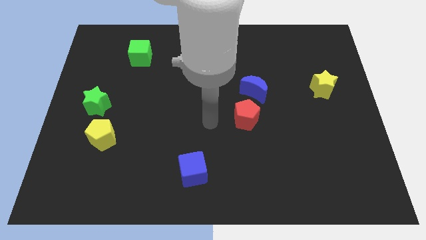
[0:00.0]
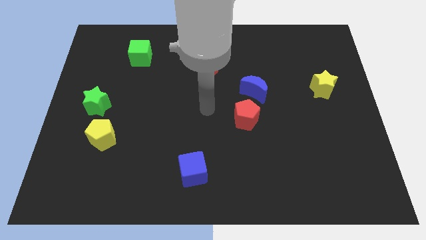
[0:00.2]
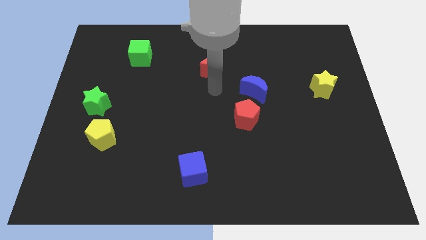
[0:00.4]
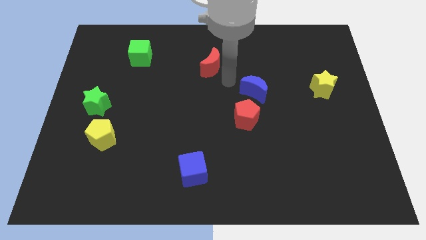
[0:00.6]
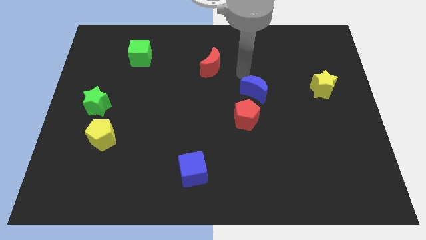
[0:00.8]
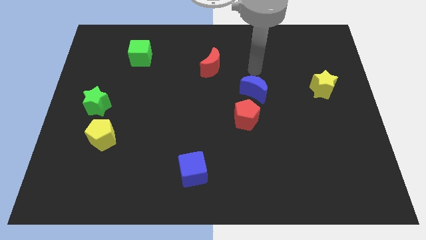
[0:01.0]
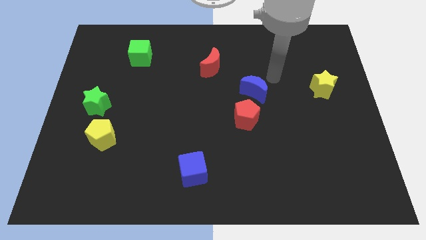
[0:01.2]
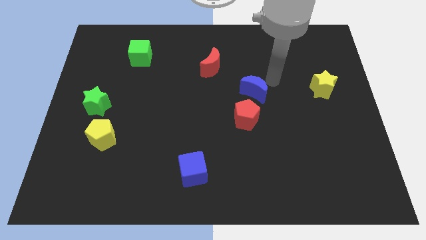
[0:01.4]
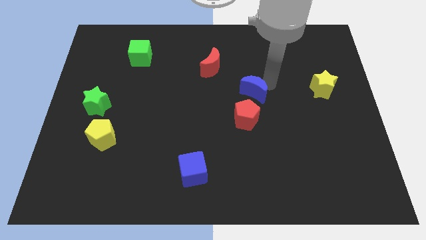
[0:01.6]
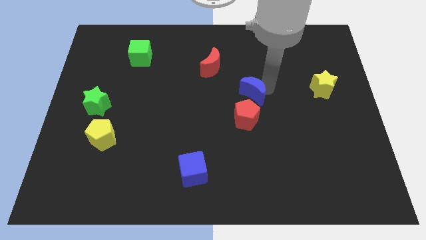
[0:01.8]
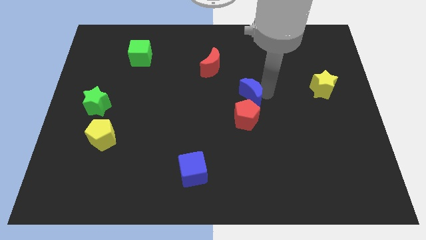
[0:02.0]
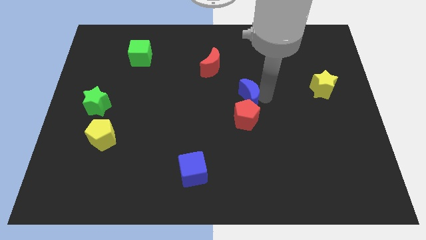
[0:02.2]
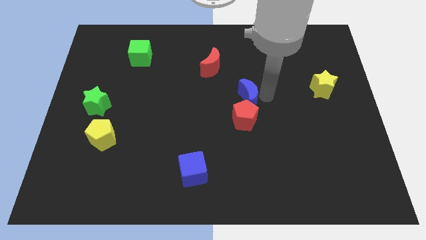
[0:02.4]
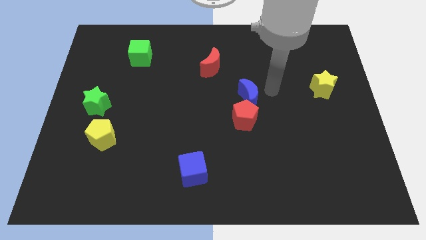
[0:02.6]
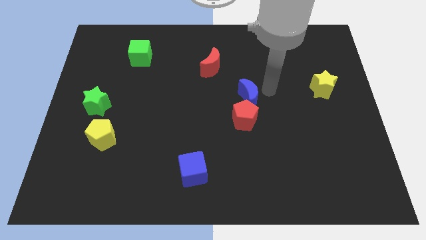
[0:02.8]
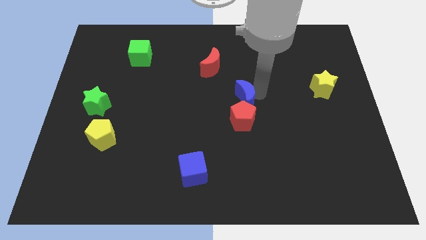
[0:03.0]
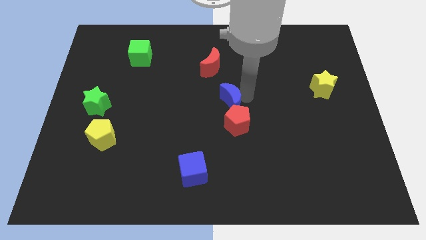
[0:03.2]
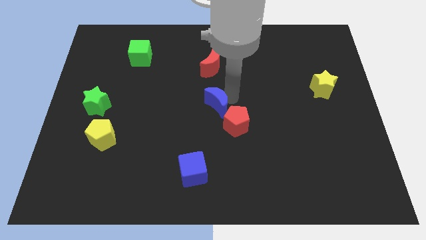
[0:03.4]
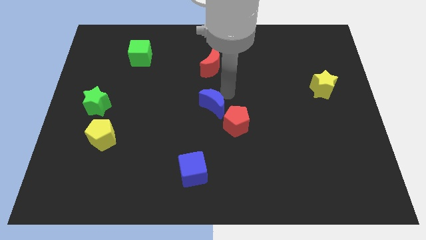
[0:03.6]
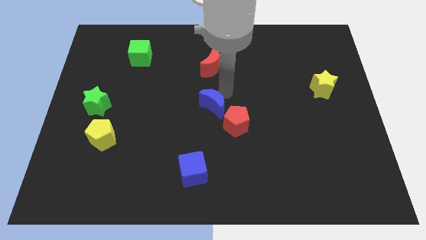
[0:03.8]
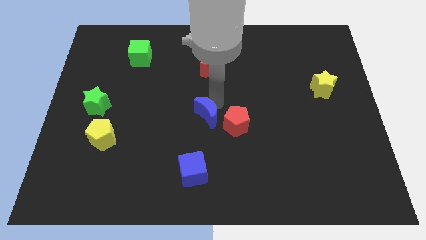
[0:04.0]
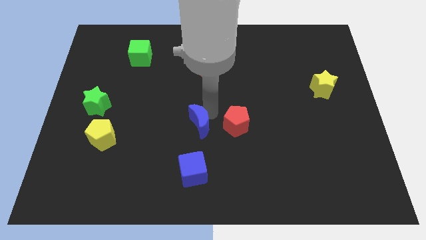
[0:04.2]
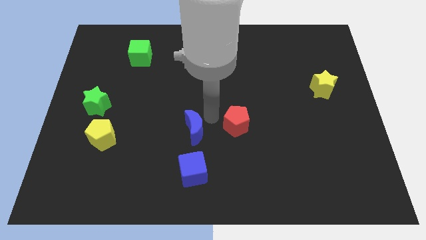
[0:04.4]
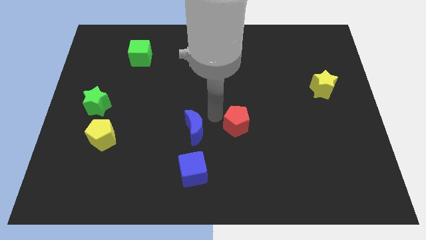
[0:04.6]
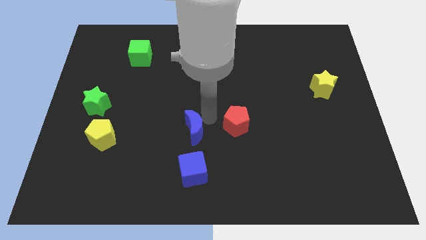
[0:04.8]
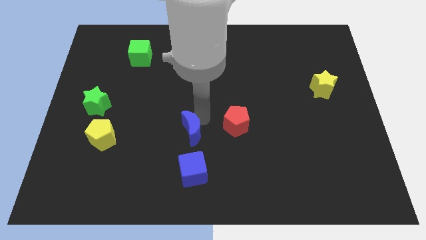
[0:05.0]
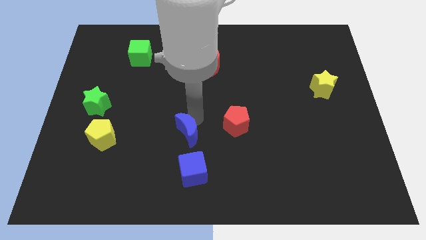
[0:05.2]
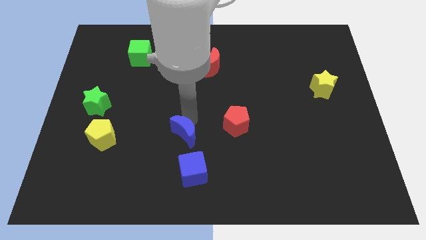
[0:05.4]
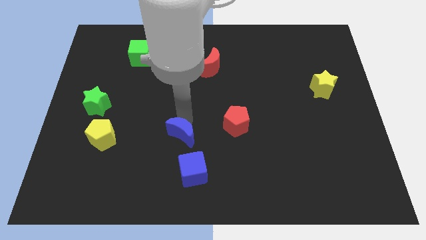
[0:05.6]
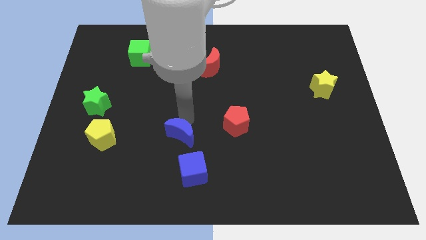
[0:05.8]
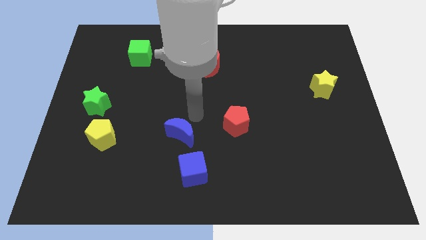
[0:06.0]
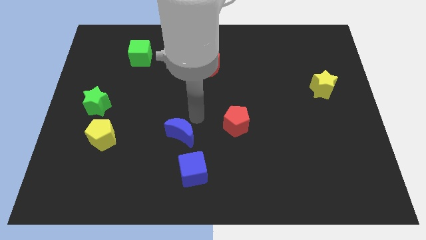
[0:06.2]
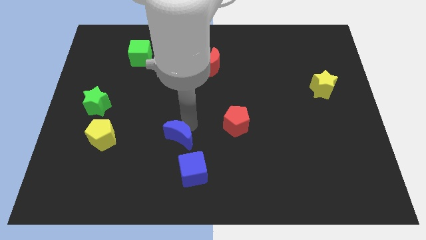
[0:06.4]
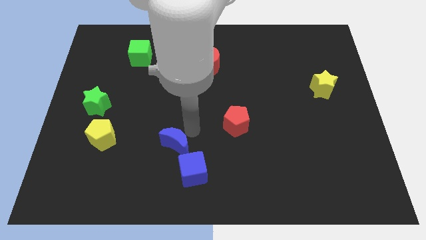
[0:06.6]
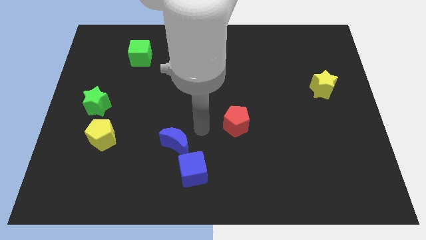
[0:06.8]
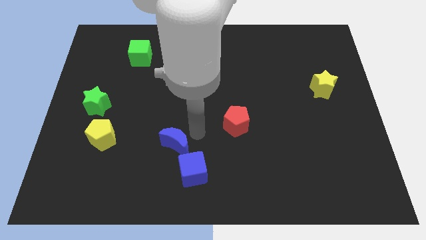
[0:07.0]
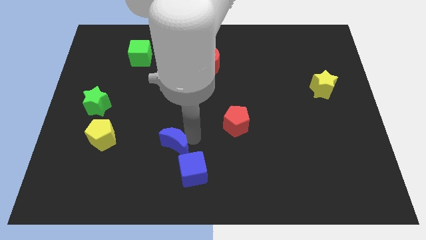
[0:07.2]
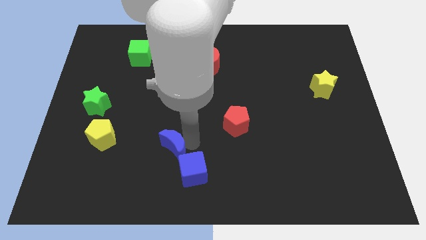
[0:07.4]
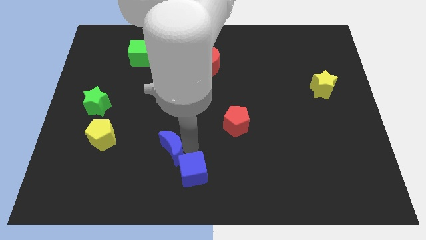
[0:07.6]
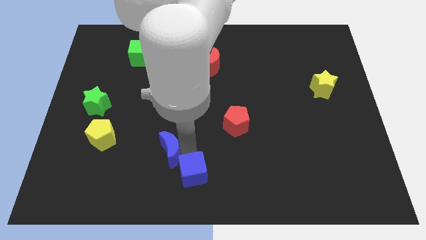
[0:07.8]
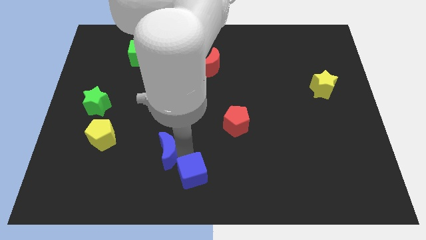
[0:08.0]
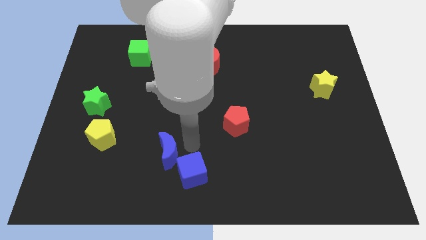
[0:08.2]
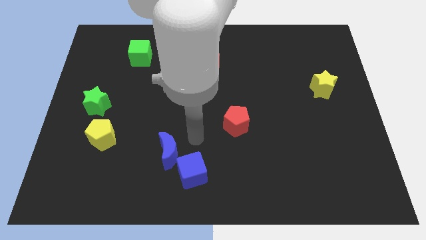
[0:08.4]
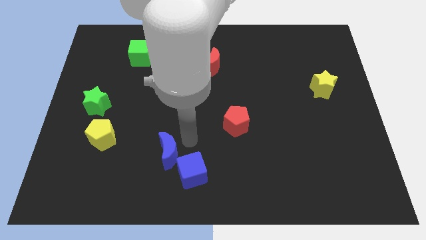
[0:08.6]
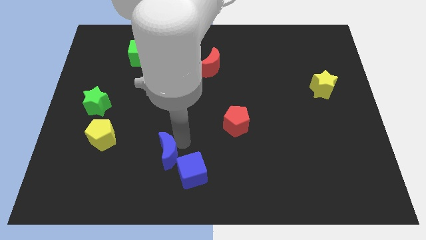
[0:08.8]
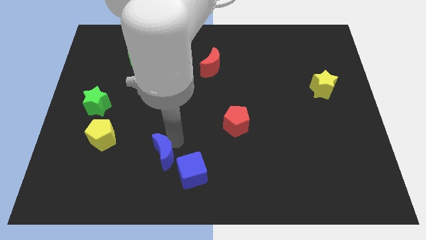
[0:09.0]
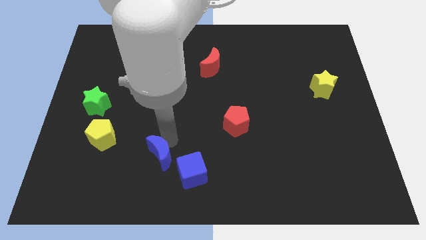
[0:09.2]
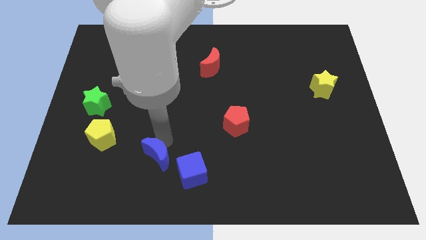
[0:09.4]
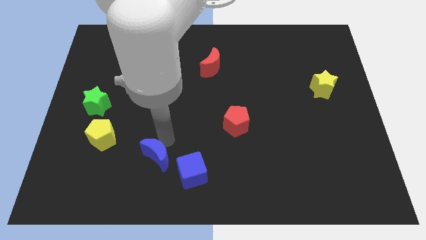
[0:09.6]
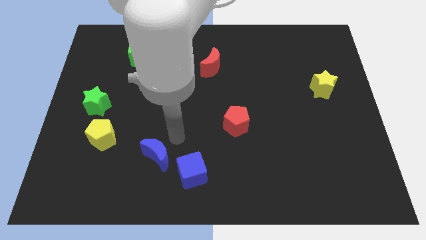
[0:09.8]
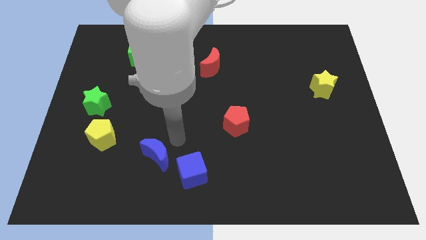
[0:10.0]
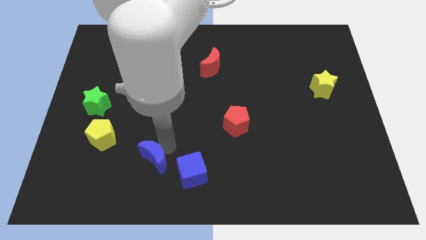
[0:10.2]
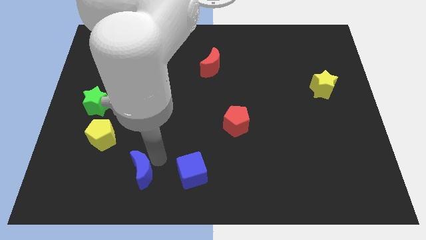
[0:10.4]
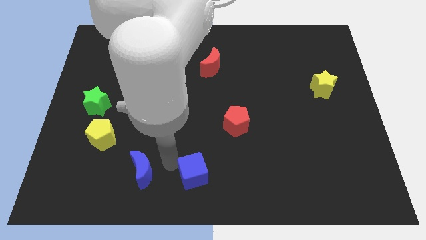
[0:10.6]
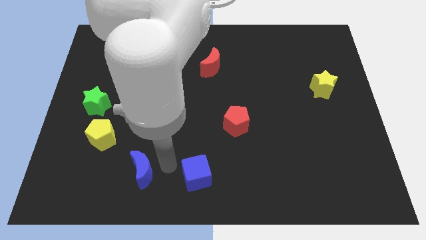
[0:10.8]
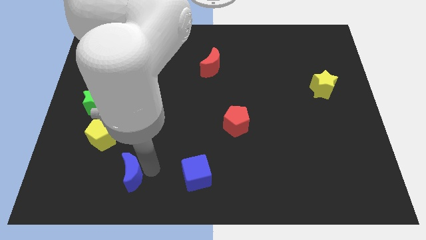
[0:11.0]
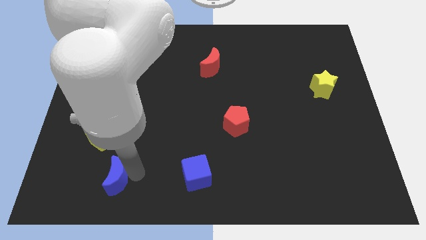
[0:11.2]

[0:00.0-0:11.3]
put the blue moon below the yellow pentagon
